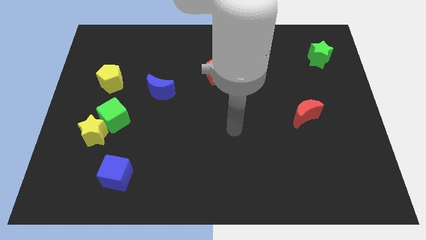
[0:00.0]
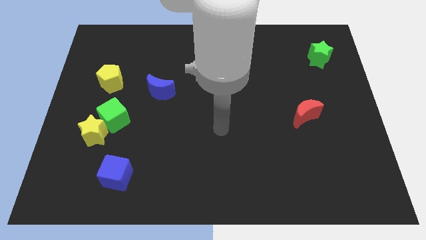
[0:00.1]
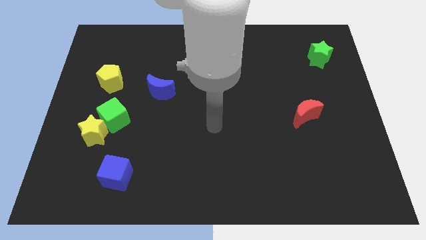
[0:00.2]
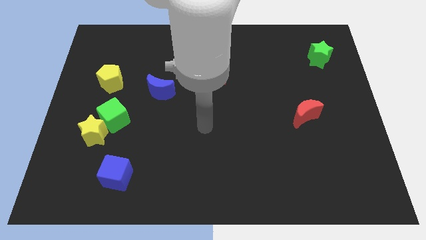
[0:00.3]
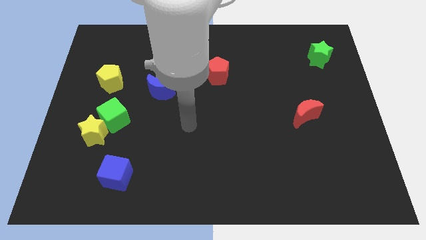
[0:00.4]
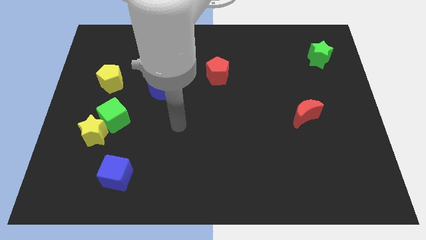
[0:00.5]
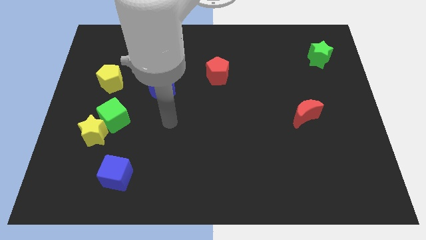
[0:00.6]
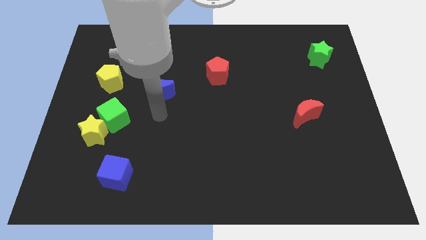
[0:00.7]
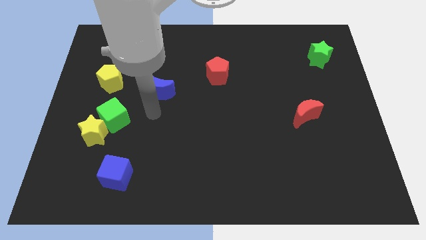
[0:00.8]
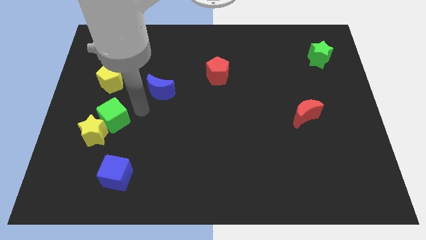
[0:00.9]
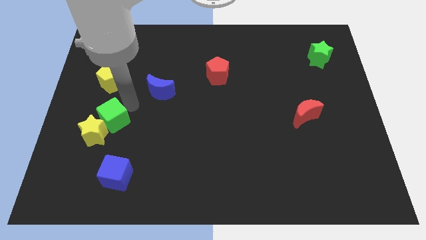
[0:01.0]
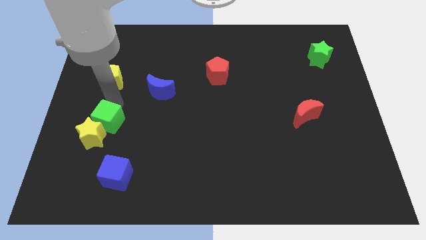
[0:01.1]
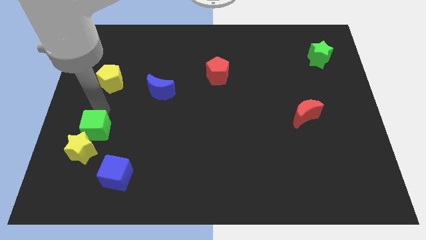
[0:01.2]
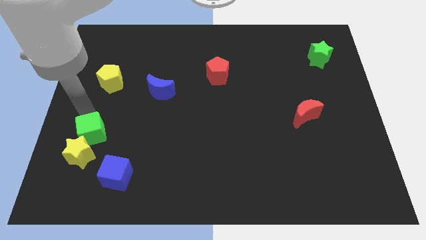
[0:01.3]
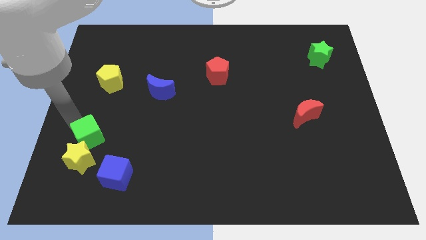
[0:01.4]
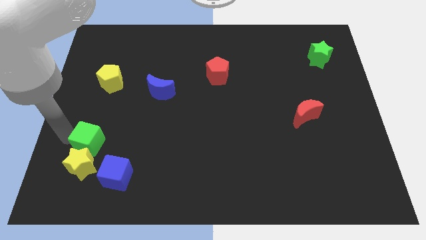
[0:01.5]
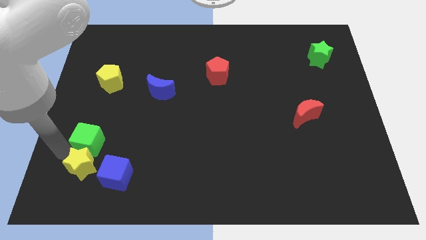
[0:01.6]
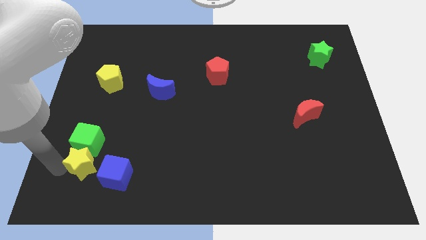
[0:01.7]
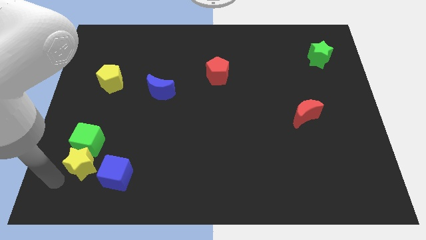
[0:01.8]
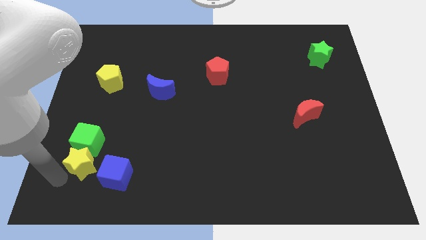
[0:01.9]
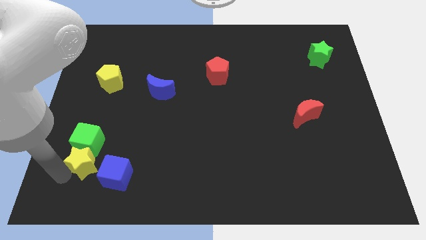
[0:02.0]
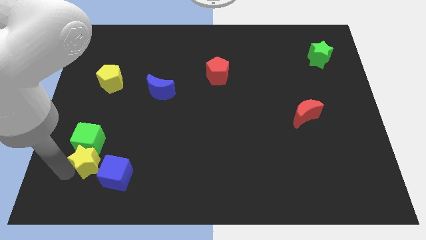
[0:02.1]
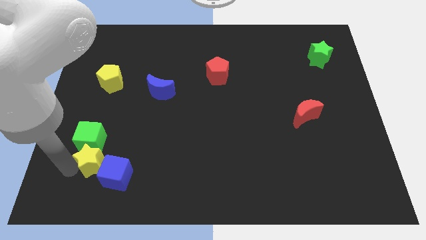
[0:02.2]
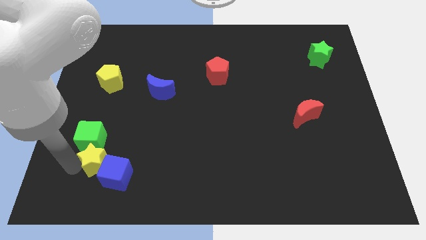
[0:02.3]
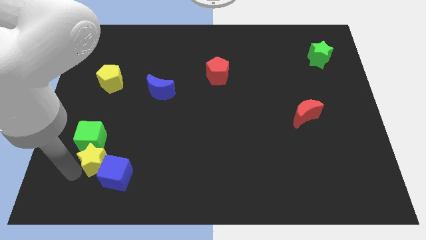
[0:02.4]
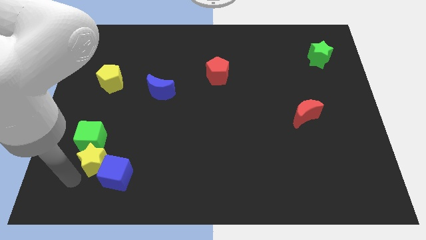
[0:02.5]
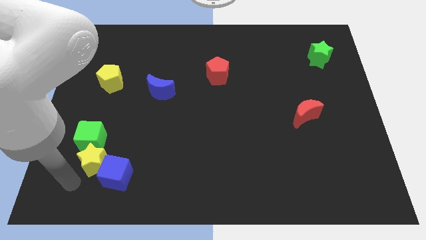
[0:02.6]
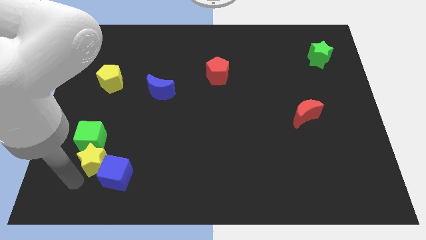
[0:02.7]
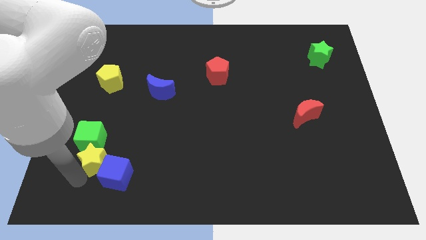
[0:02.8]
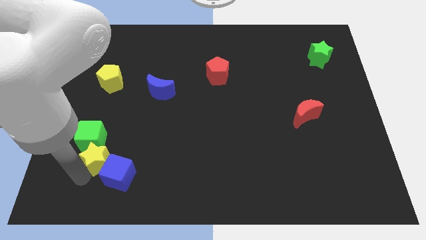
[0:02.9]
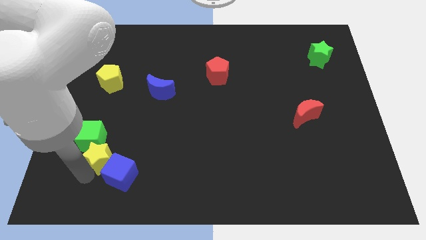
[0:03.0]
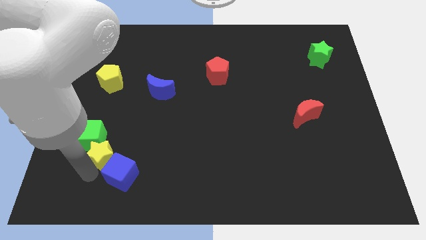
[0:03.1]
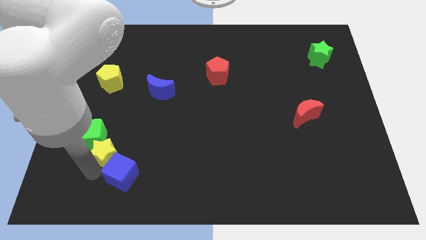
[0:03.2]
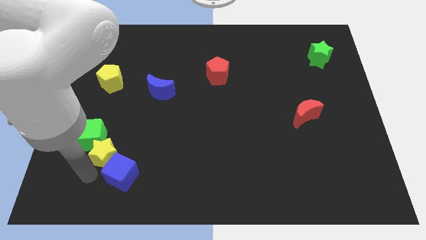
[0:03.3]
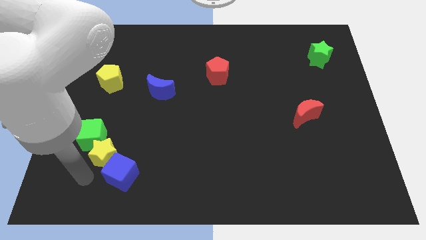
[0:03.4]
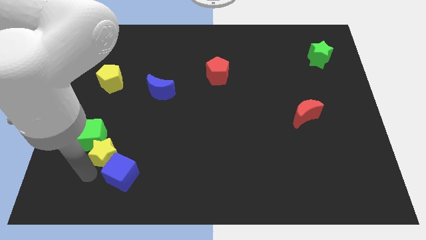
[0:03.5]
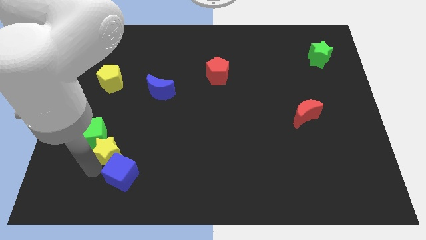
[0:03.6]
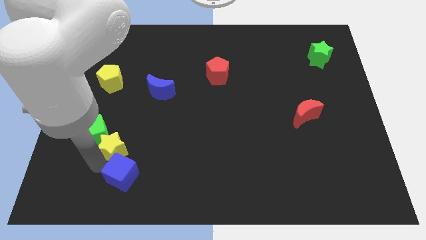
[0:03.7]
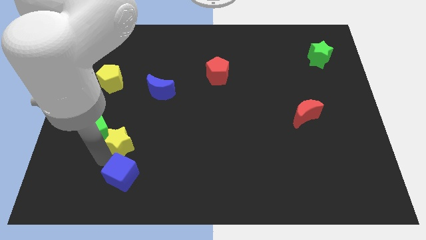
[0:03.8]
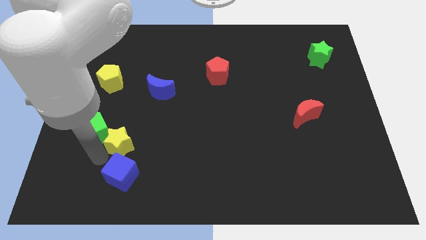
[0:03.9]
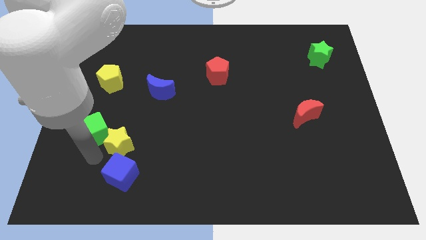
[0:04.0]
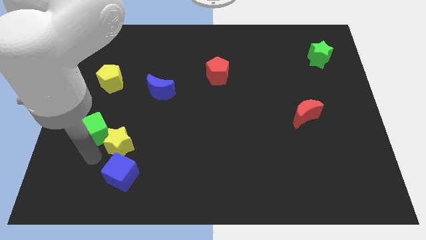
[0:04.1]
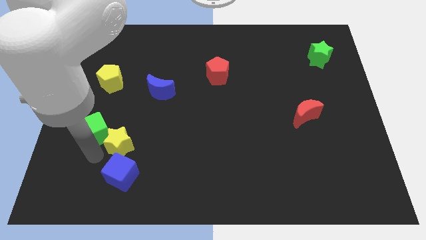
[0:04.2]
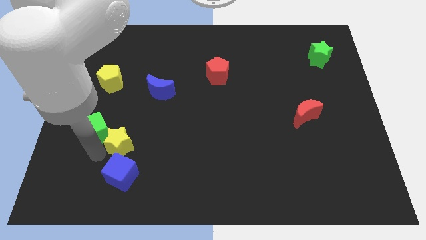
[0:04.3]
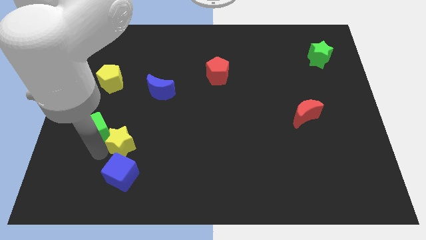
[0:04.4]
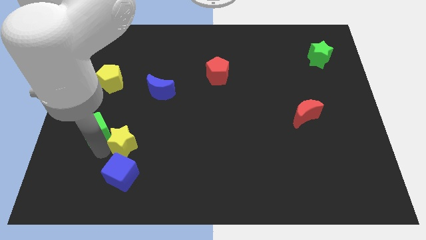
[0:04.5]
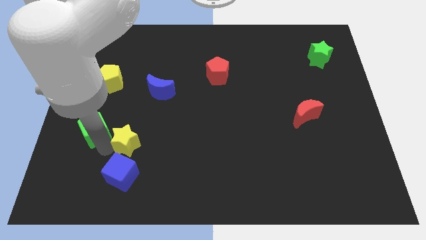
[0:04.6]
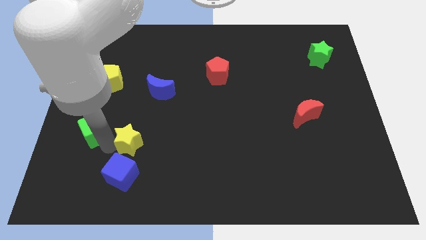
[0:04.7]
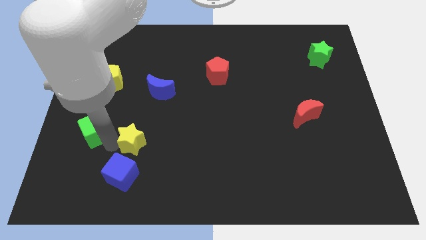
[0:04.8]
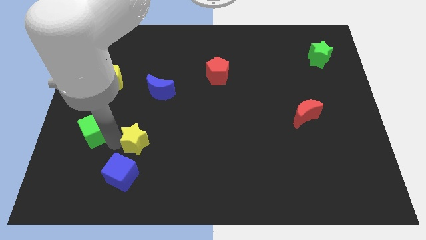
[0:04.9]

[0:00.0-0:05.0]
slide the yellow star below the blue moon

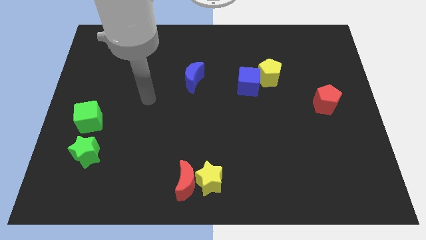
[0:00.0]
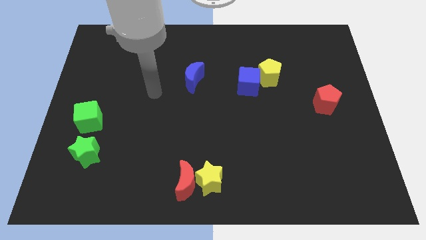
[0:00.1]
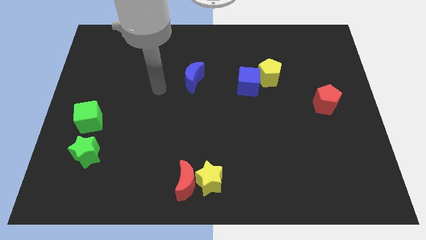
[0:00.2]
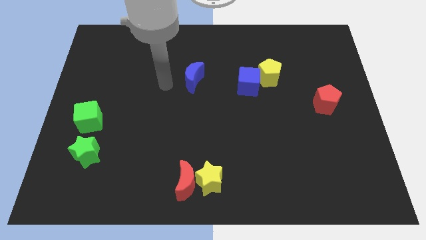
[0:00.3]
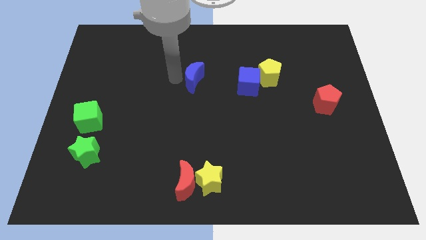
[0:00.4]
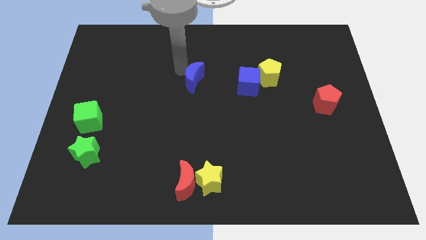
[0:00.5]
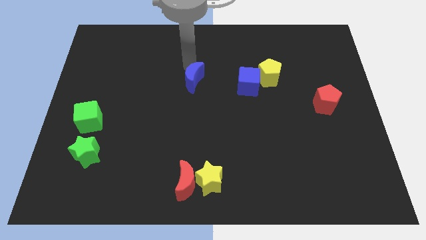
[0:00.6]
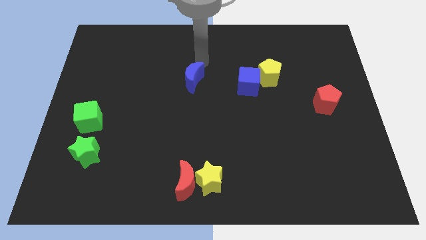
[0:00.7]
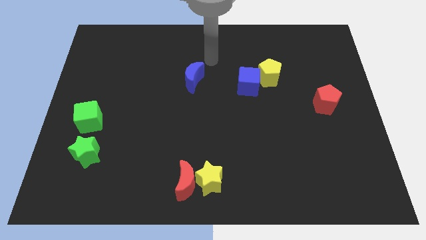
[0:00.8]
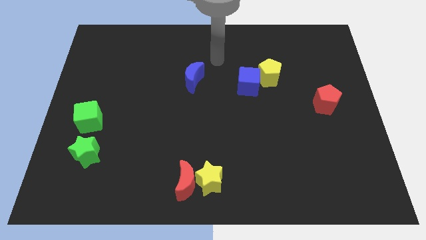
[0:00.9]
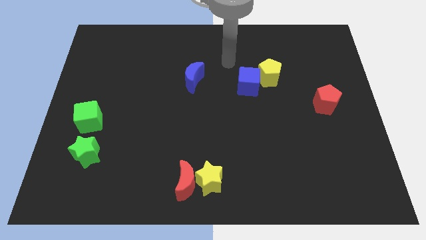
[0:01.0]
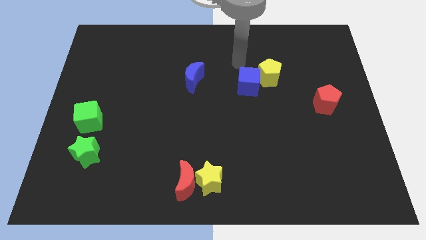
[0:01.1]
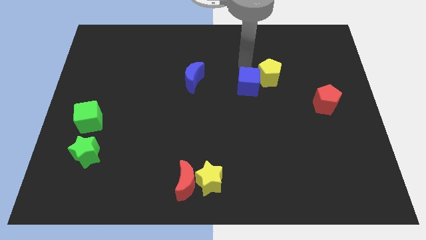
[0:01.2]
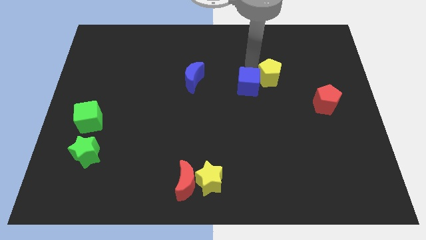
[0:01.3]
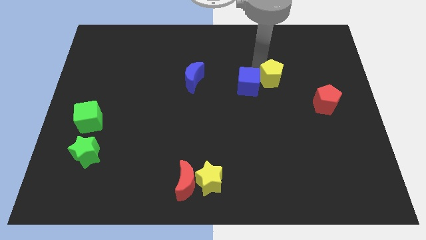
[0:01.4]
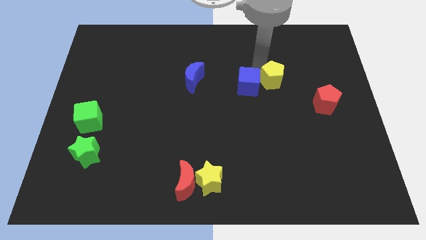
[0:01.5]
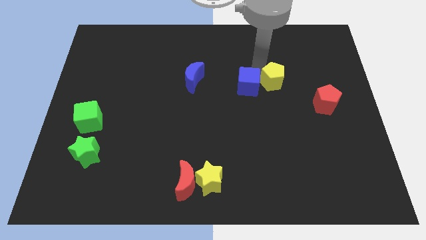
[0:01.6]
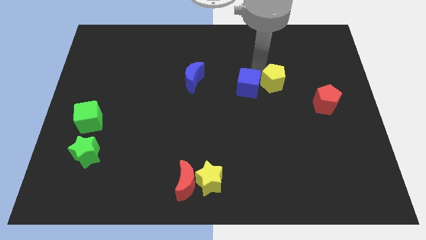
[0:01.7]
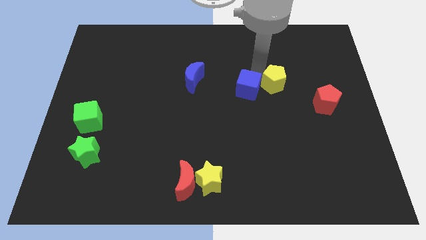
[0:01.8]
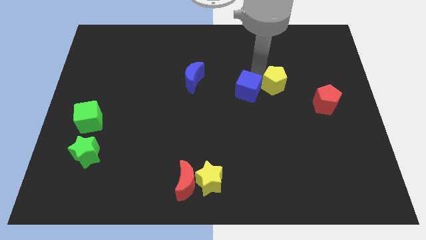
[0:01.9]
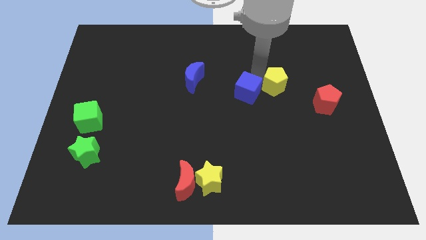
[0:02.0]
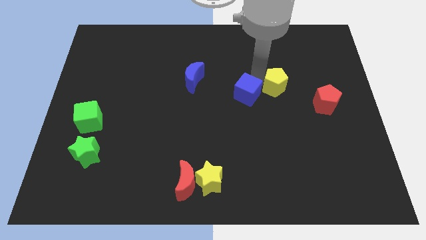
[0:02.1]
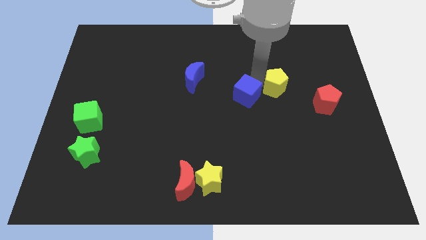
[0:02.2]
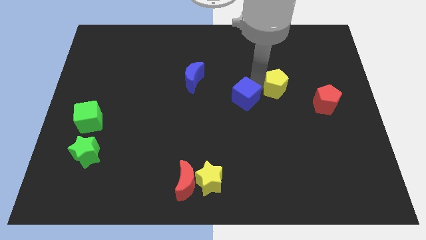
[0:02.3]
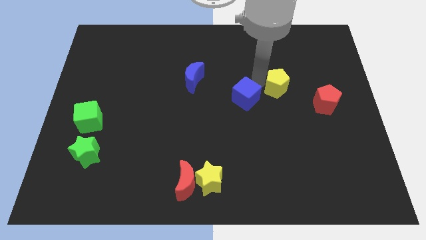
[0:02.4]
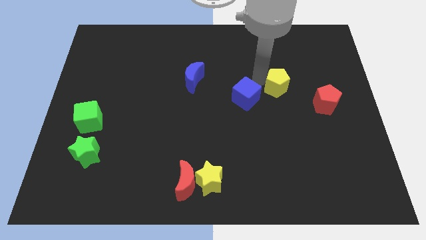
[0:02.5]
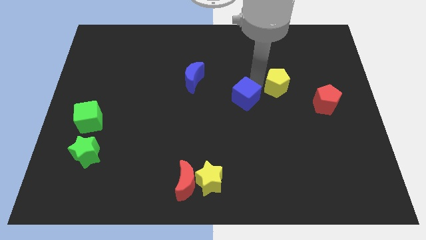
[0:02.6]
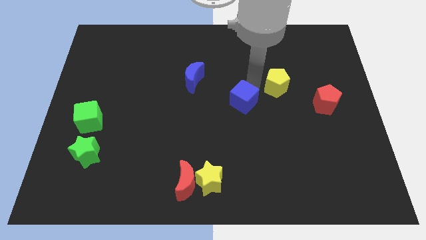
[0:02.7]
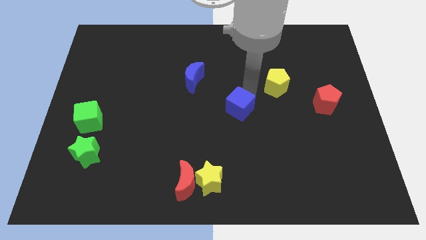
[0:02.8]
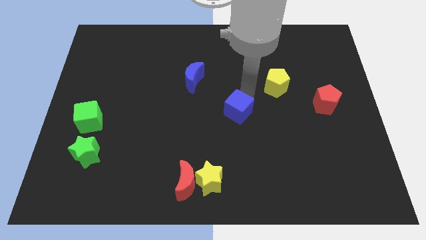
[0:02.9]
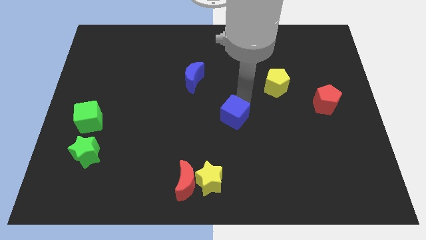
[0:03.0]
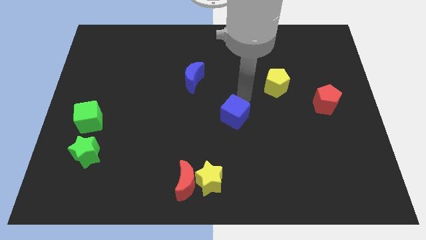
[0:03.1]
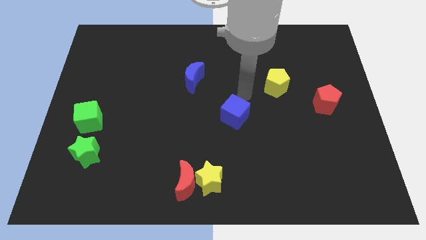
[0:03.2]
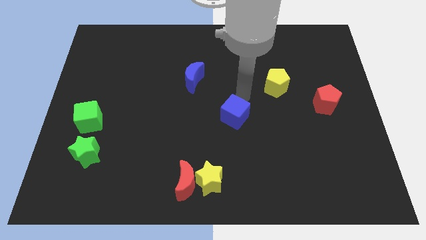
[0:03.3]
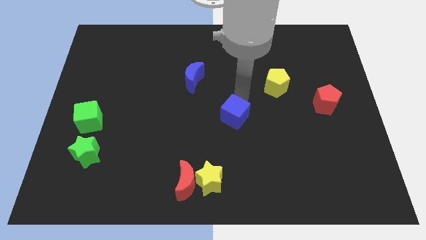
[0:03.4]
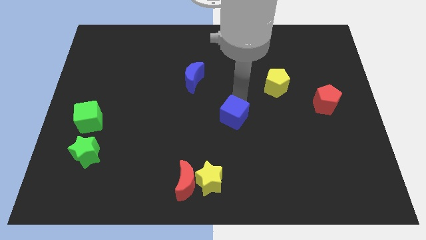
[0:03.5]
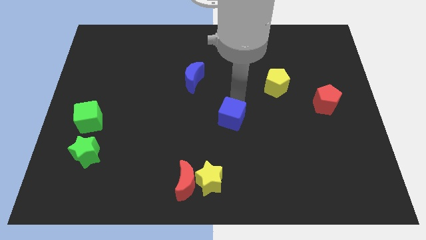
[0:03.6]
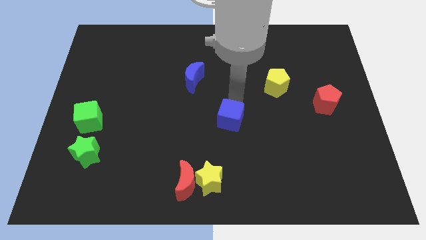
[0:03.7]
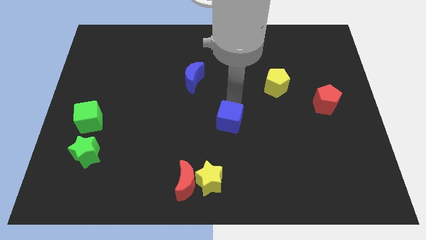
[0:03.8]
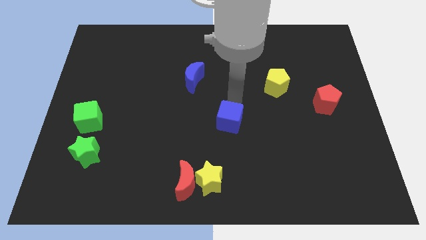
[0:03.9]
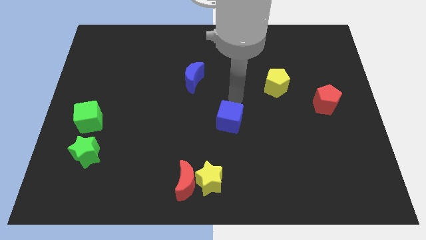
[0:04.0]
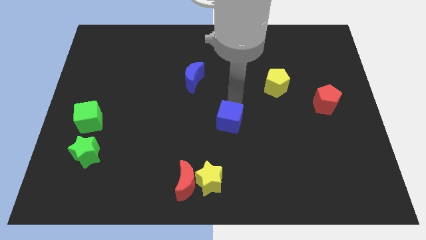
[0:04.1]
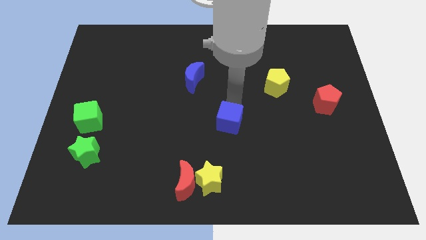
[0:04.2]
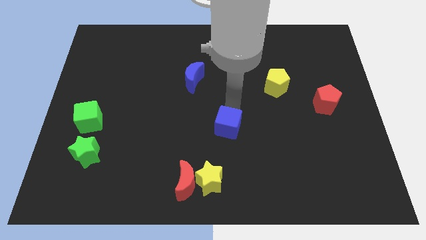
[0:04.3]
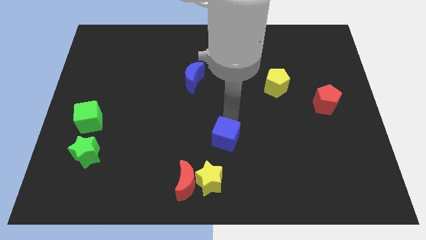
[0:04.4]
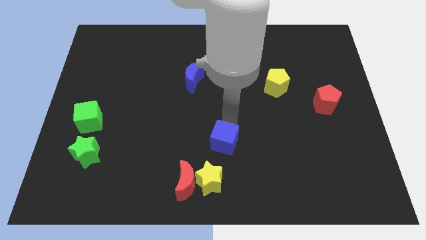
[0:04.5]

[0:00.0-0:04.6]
move the blue cube diagonally up and to the right of the red moon
